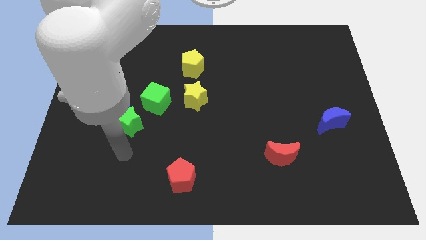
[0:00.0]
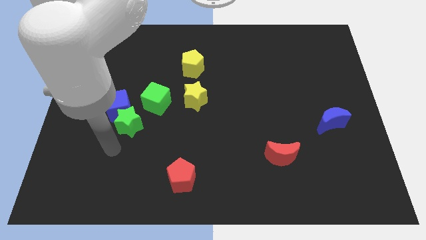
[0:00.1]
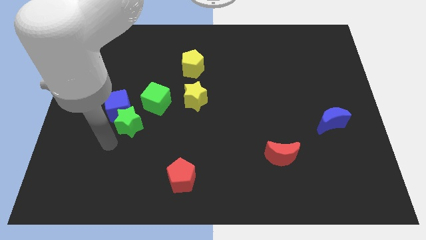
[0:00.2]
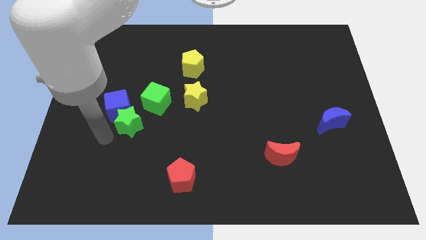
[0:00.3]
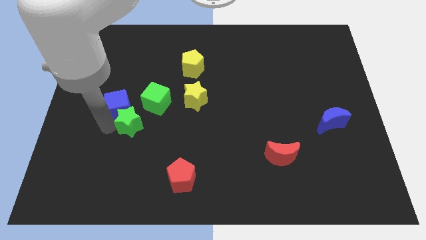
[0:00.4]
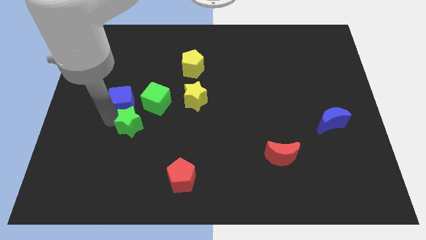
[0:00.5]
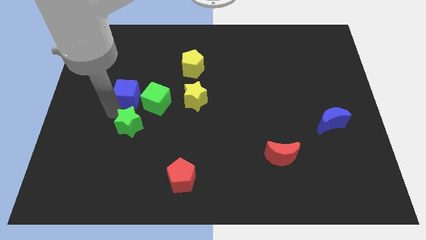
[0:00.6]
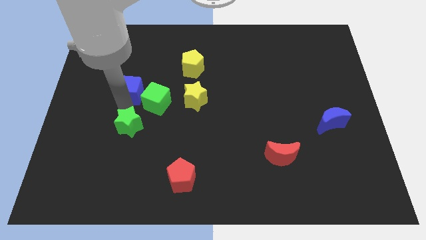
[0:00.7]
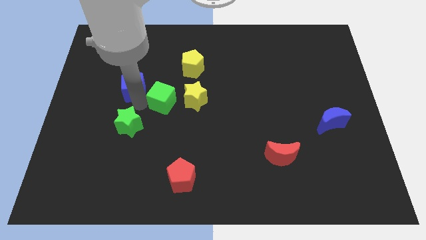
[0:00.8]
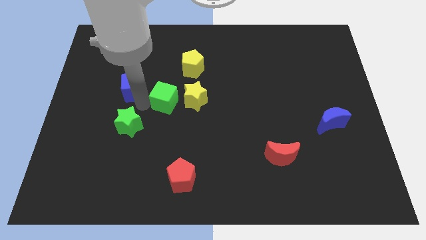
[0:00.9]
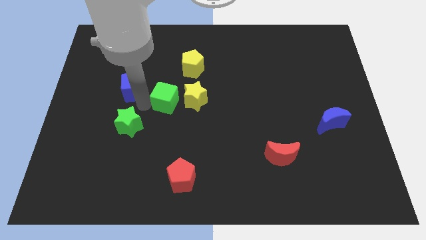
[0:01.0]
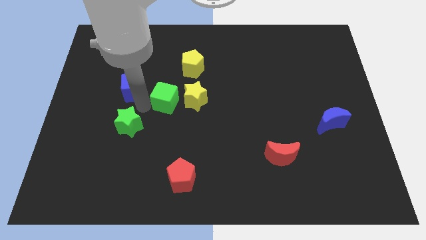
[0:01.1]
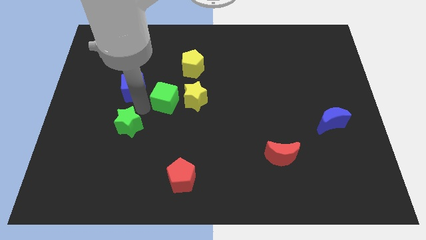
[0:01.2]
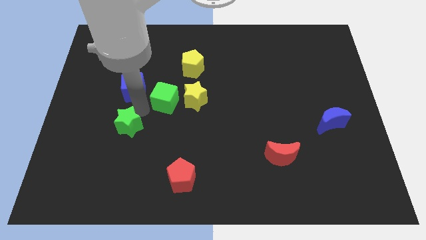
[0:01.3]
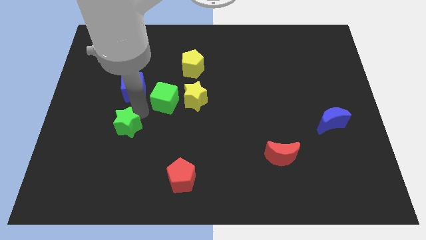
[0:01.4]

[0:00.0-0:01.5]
move the green star away from the blue cube and green cube

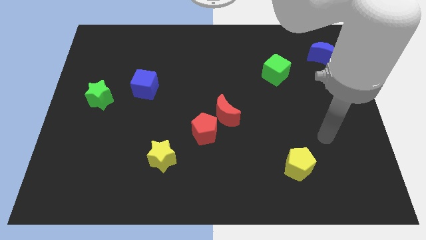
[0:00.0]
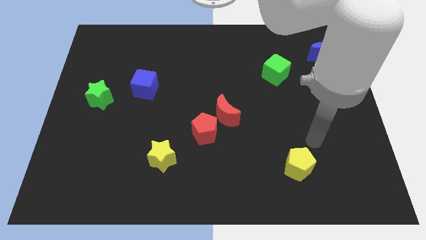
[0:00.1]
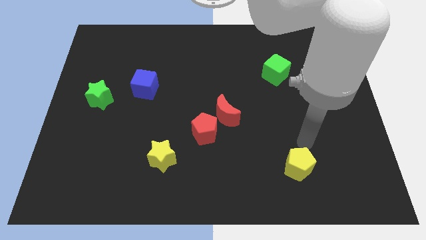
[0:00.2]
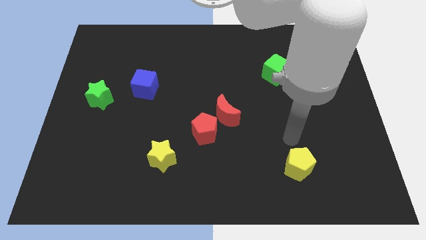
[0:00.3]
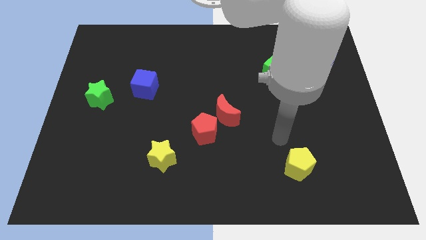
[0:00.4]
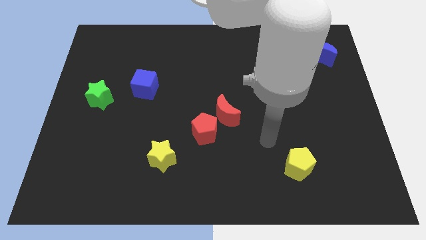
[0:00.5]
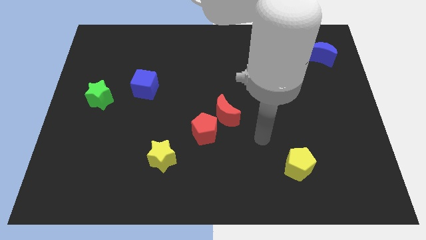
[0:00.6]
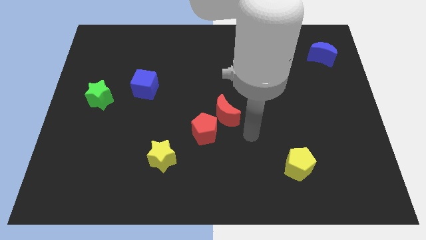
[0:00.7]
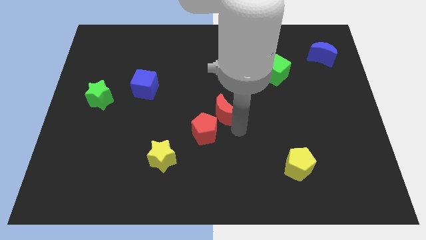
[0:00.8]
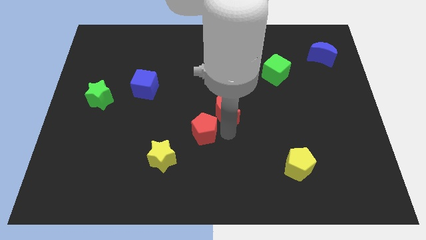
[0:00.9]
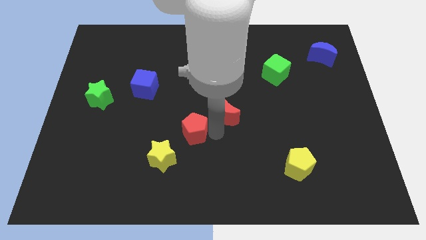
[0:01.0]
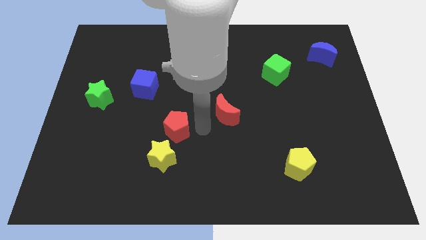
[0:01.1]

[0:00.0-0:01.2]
separate the red moon from the red pentagon

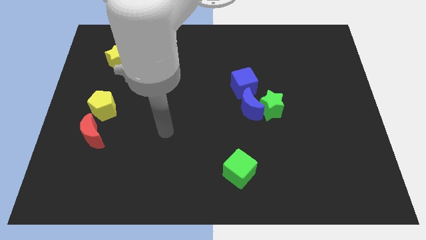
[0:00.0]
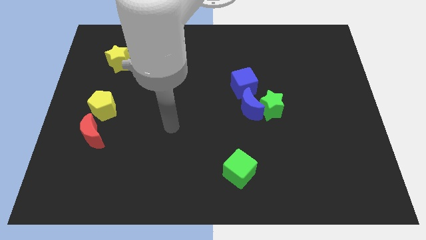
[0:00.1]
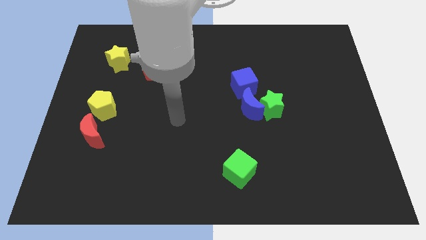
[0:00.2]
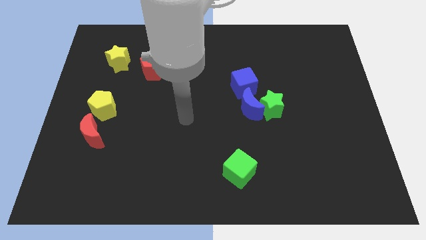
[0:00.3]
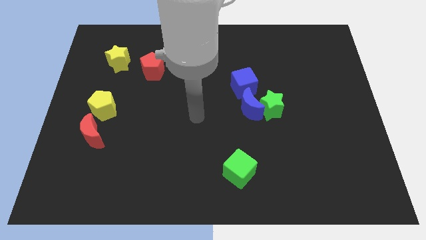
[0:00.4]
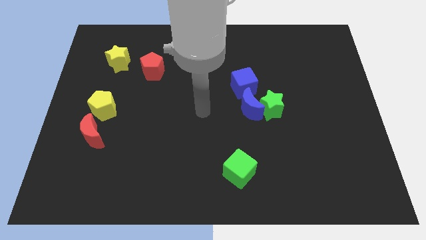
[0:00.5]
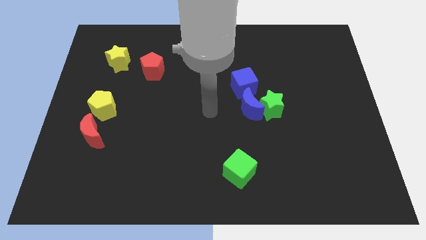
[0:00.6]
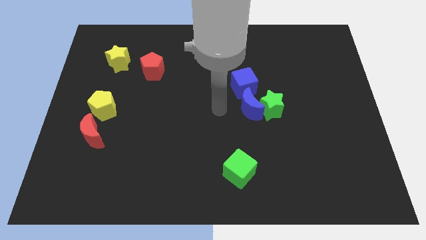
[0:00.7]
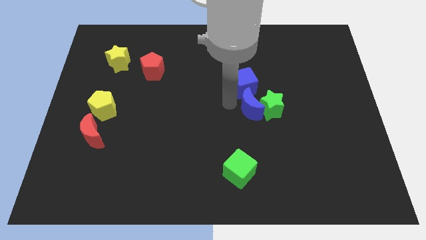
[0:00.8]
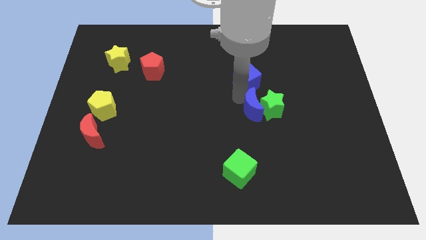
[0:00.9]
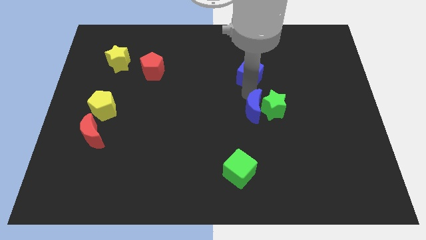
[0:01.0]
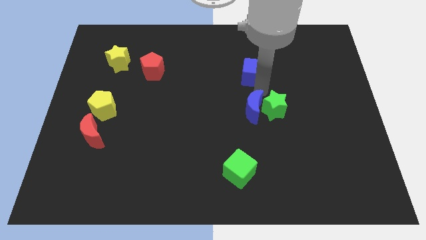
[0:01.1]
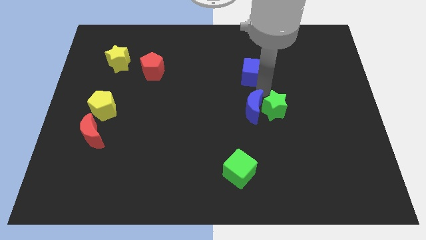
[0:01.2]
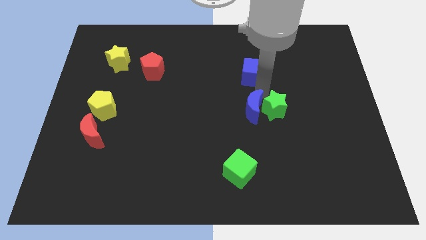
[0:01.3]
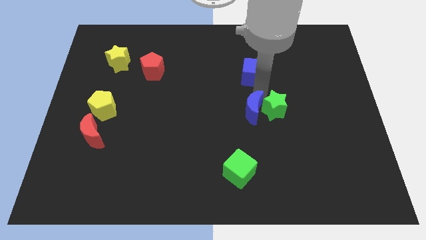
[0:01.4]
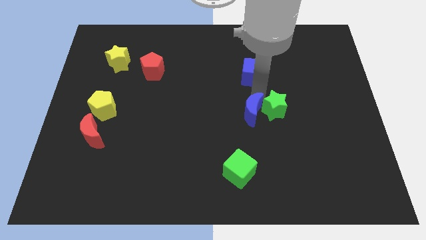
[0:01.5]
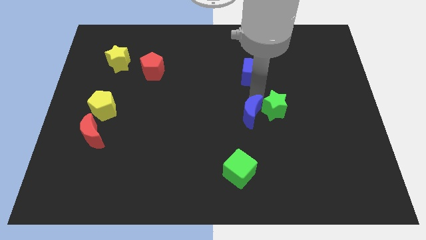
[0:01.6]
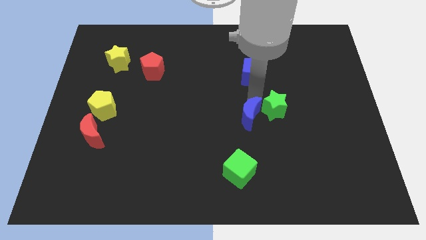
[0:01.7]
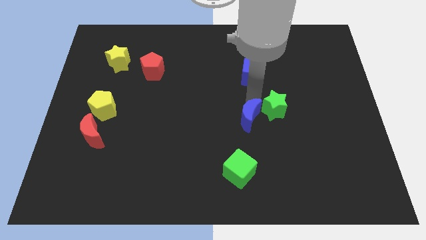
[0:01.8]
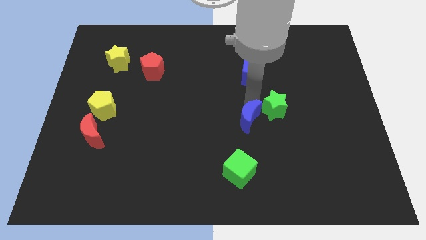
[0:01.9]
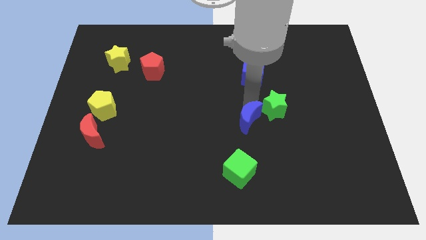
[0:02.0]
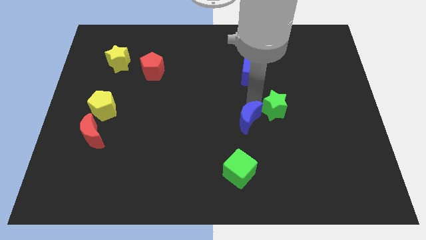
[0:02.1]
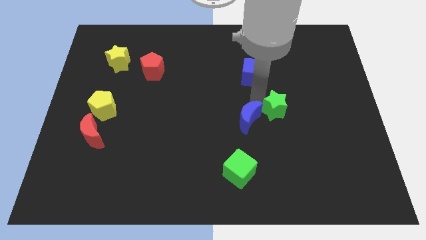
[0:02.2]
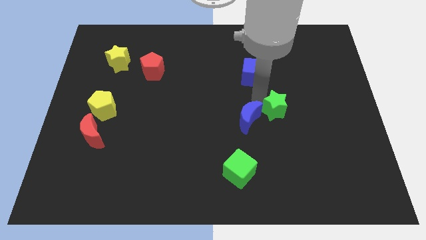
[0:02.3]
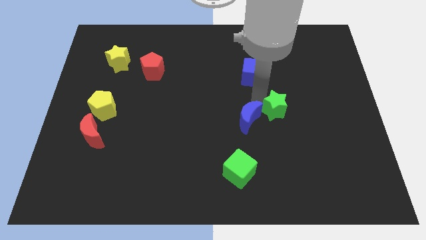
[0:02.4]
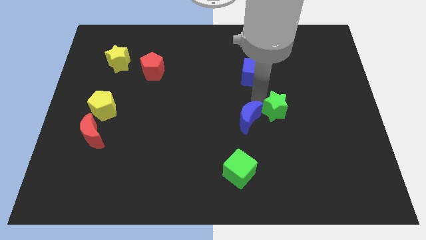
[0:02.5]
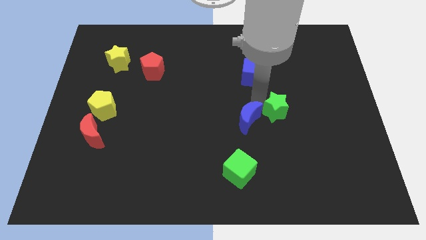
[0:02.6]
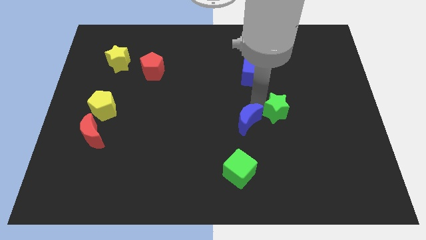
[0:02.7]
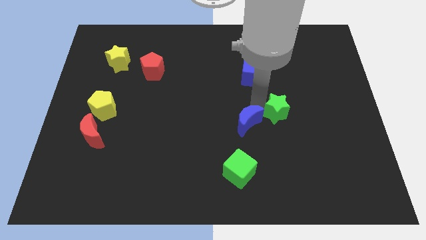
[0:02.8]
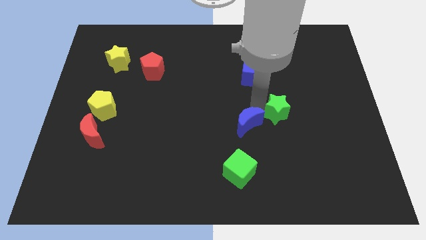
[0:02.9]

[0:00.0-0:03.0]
separate the blue moon from the green star and blue cube

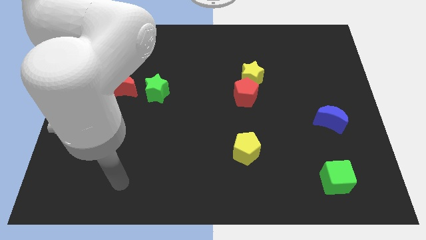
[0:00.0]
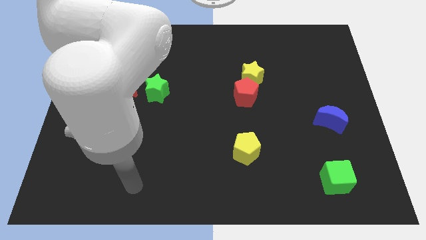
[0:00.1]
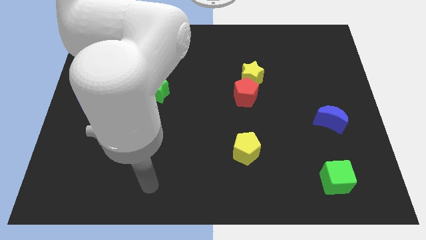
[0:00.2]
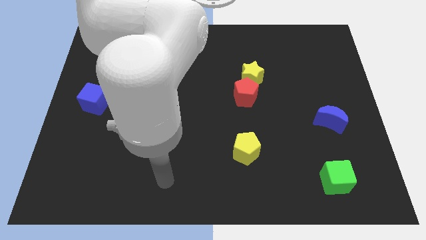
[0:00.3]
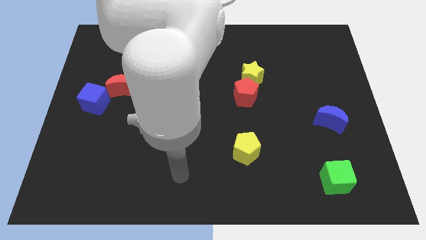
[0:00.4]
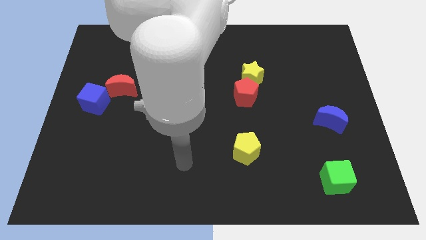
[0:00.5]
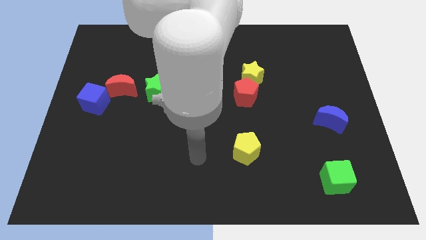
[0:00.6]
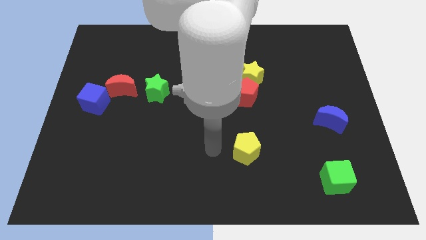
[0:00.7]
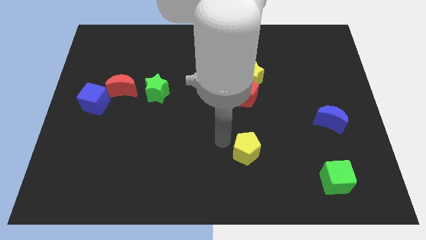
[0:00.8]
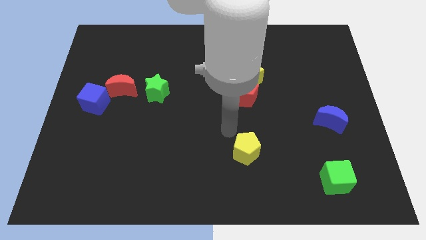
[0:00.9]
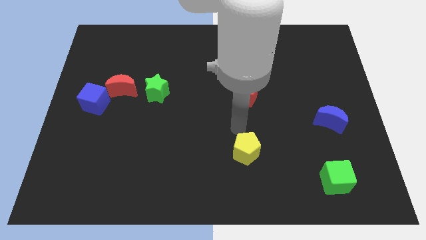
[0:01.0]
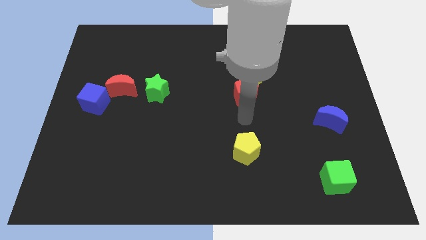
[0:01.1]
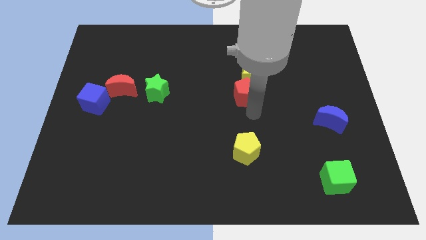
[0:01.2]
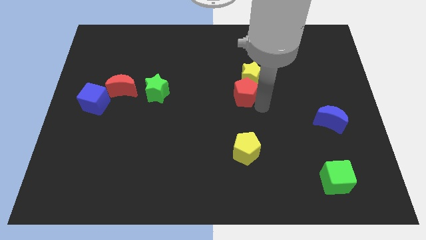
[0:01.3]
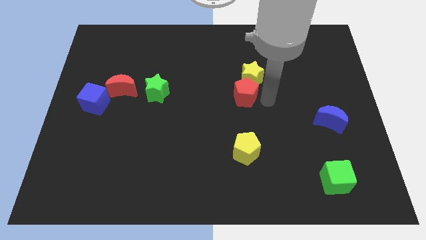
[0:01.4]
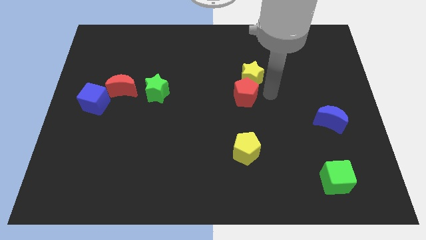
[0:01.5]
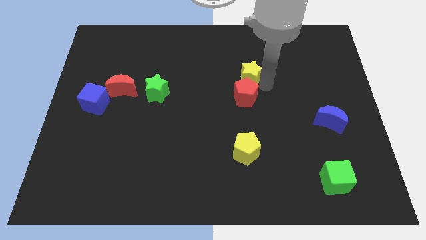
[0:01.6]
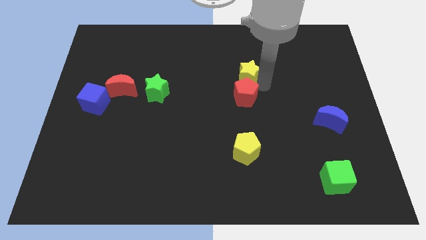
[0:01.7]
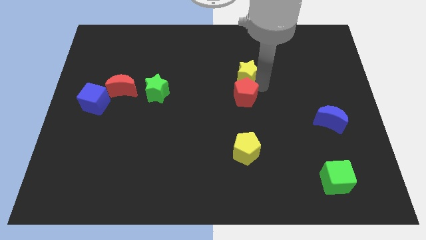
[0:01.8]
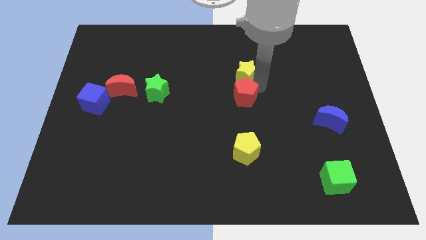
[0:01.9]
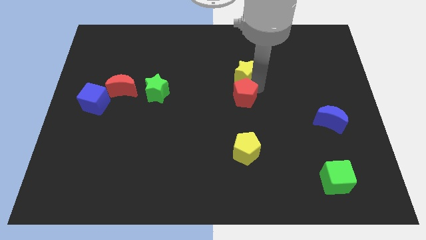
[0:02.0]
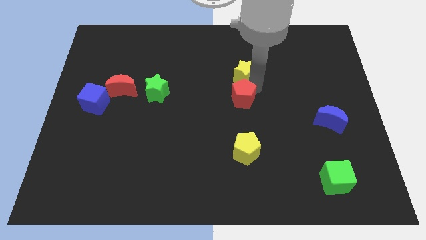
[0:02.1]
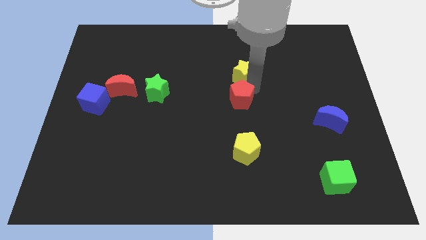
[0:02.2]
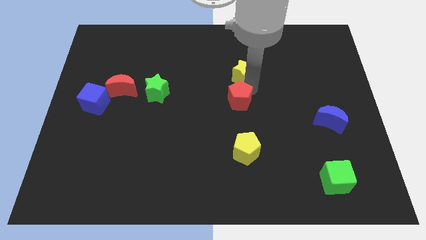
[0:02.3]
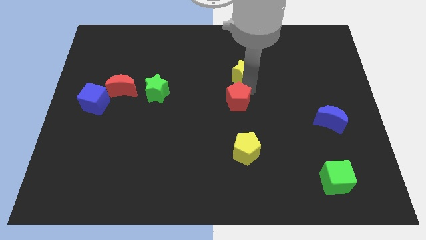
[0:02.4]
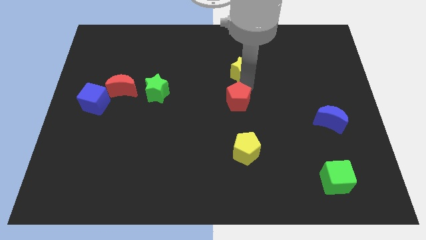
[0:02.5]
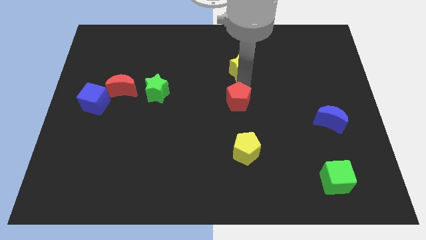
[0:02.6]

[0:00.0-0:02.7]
move the red pentagon away from the yellow star

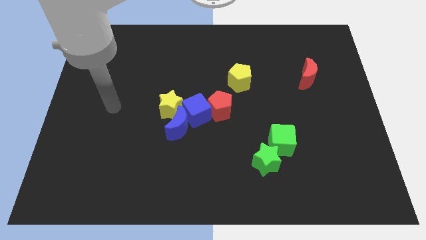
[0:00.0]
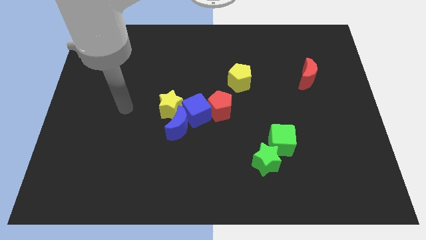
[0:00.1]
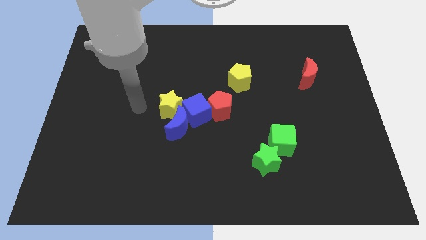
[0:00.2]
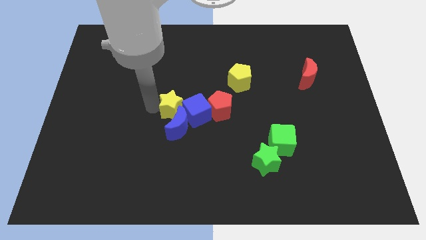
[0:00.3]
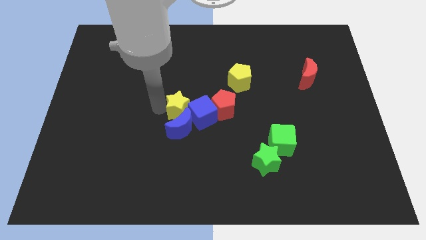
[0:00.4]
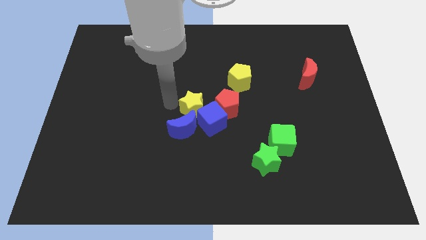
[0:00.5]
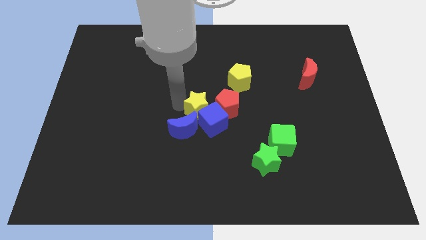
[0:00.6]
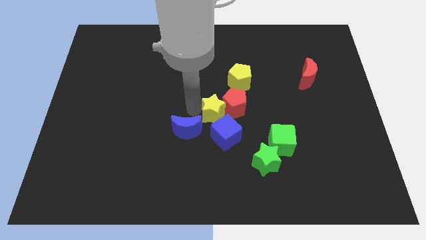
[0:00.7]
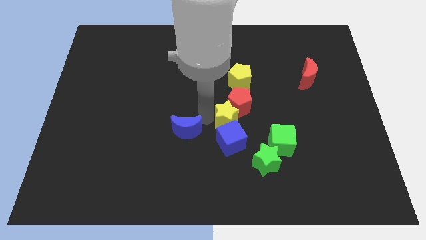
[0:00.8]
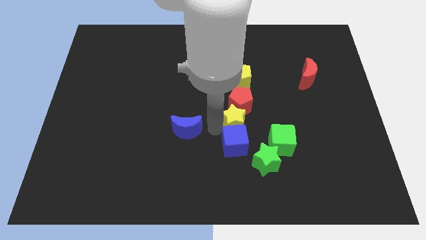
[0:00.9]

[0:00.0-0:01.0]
separate the blue moon from the blue cube and yellow star
